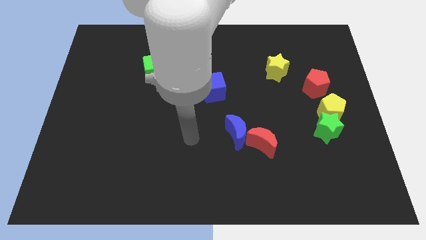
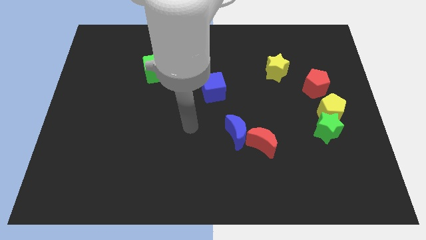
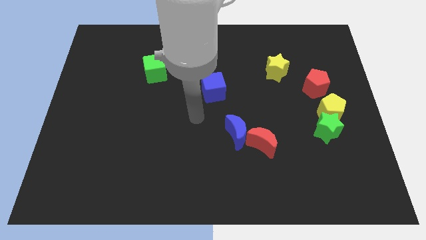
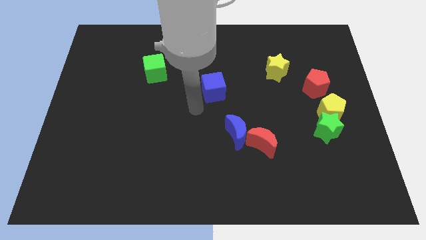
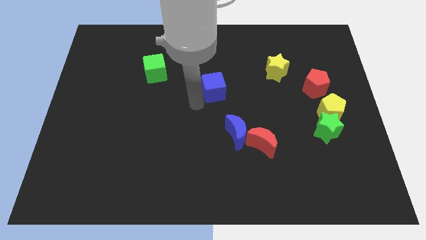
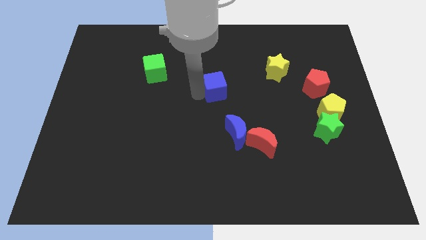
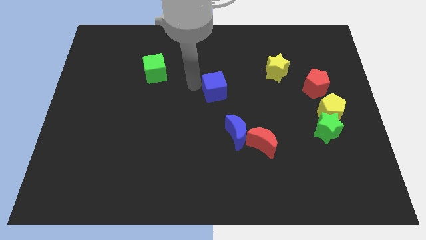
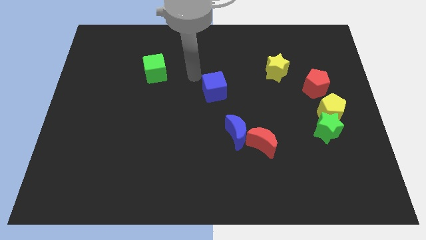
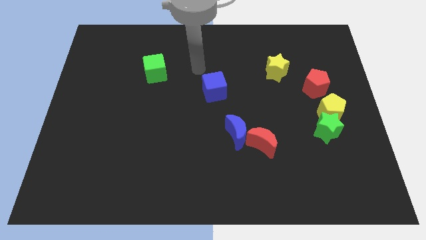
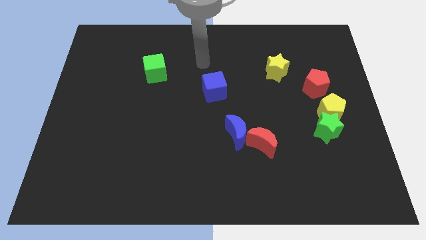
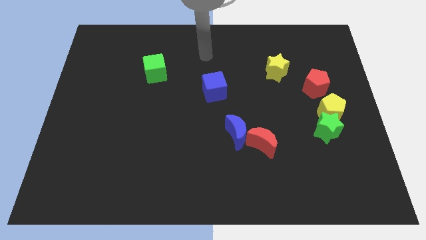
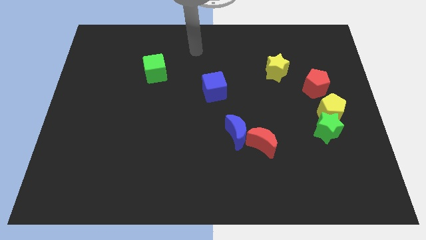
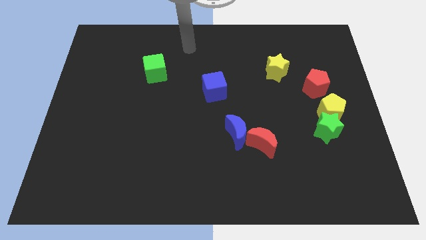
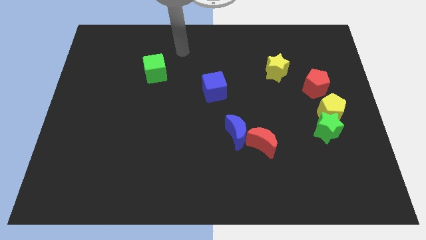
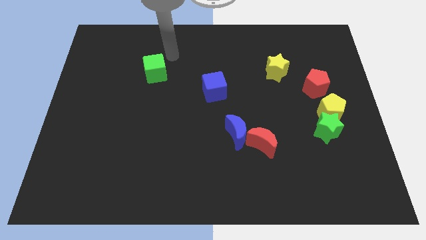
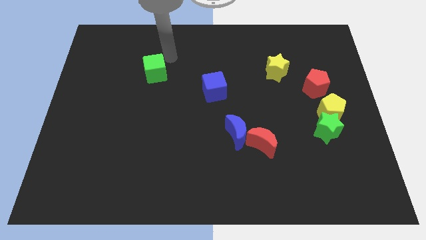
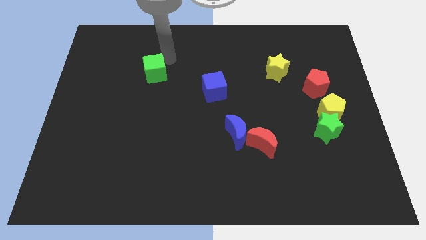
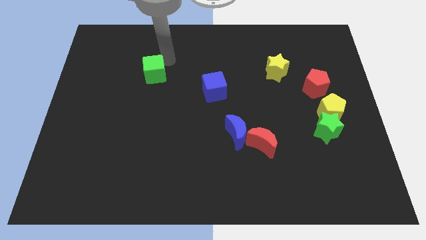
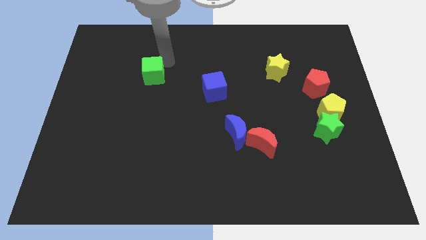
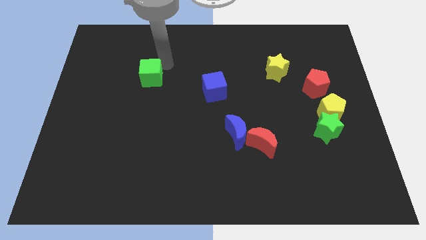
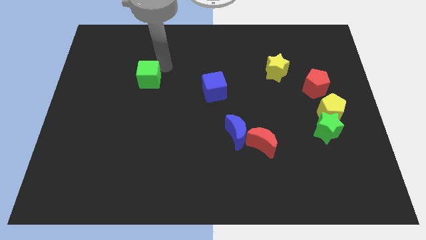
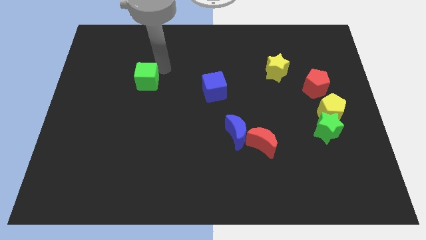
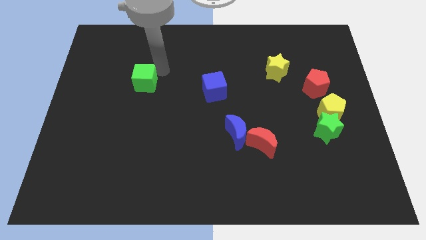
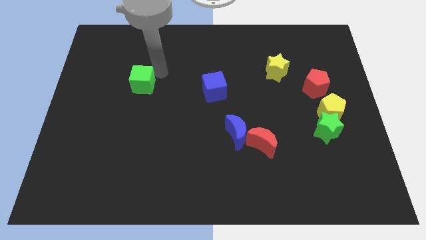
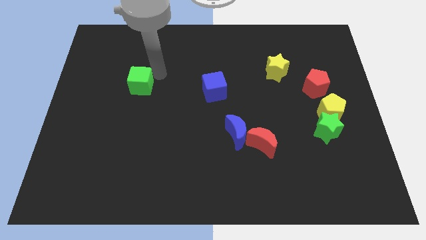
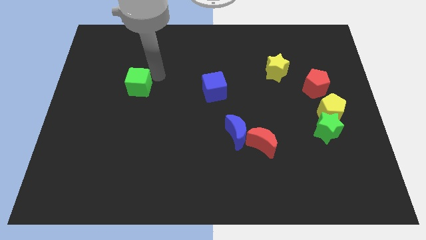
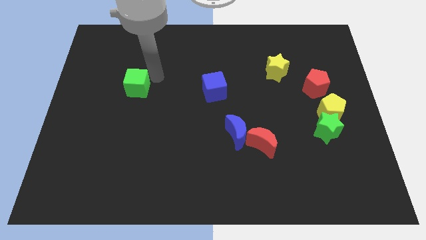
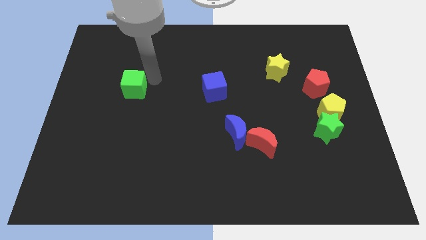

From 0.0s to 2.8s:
slide the green cube slightly down and left diagonally

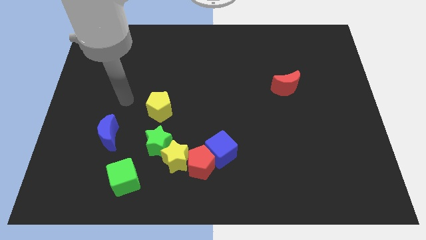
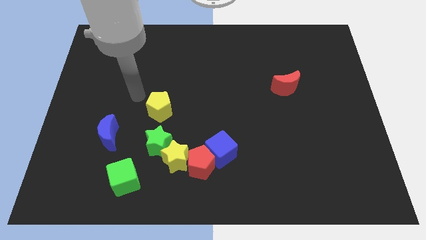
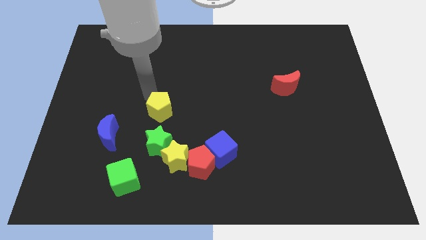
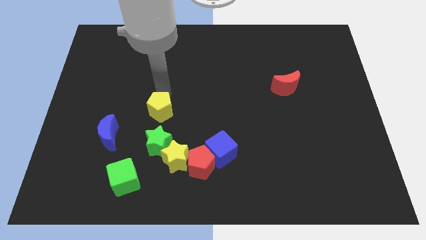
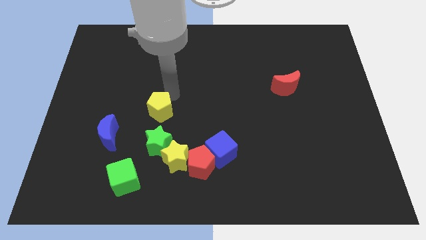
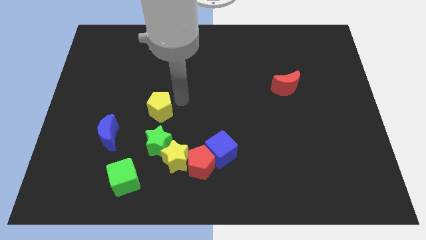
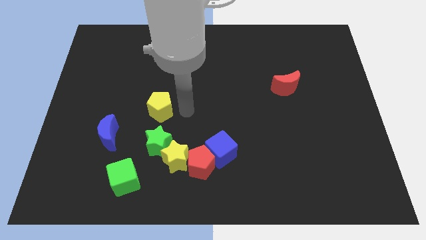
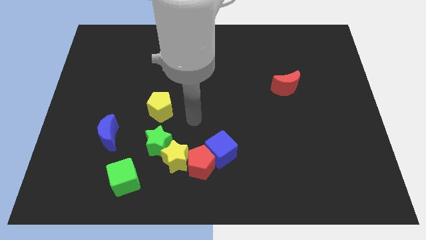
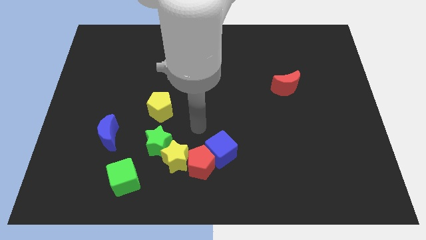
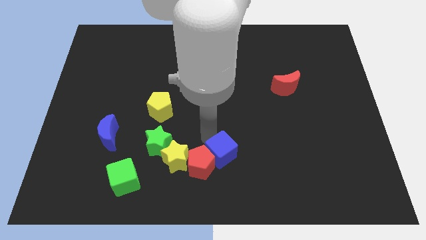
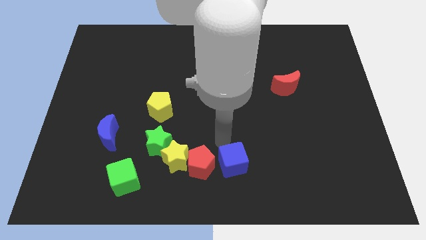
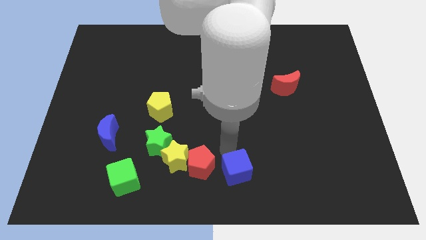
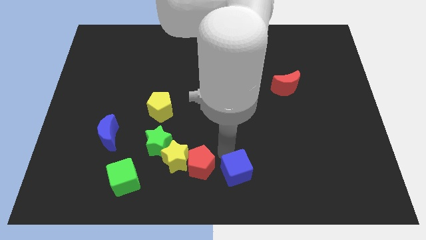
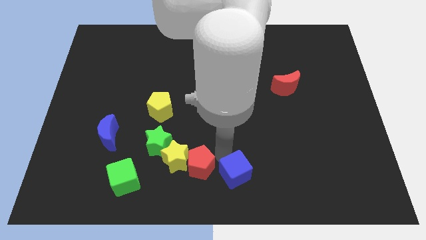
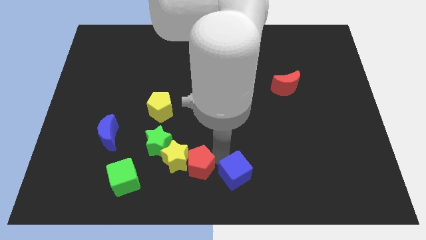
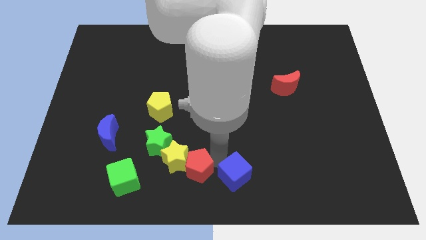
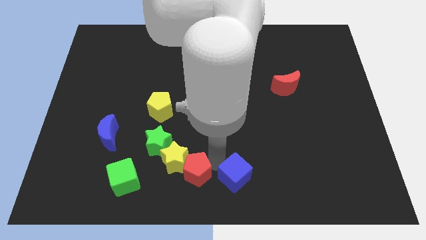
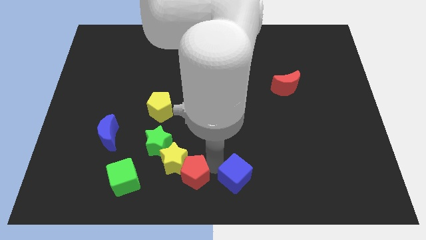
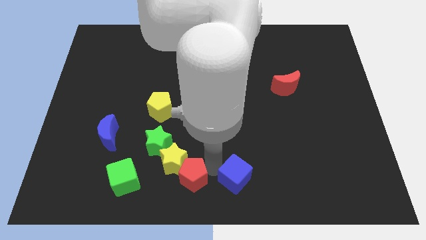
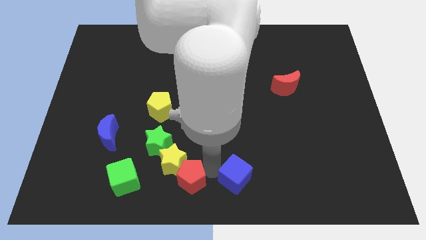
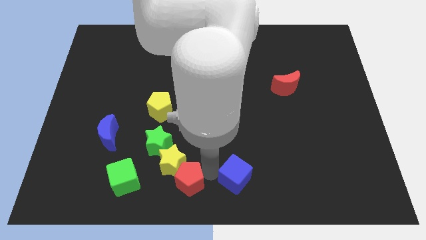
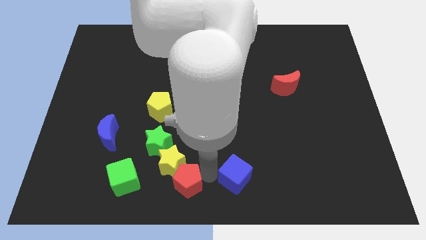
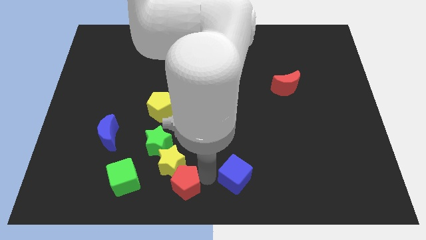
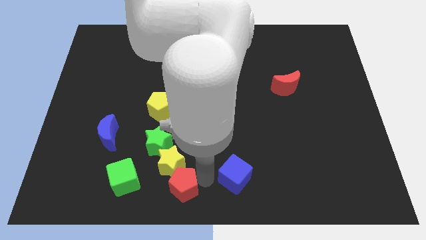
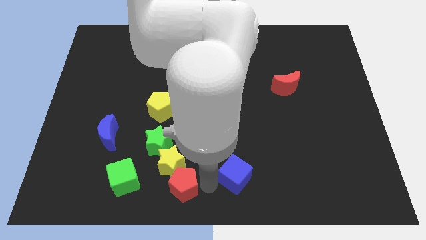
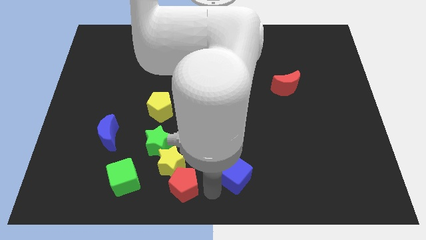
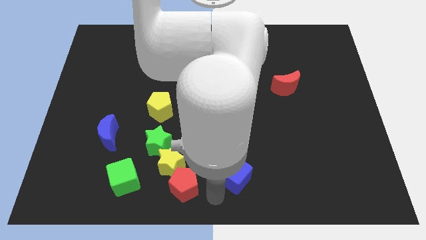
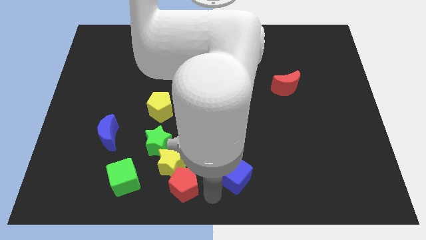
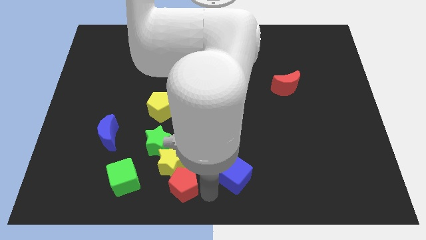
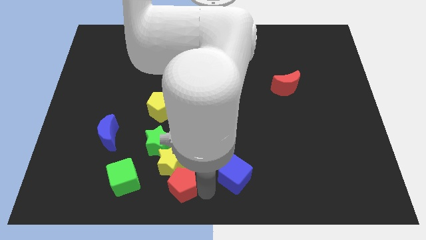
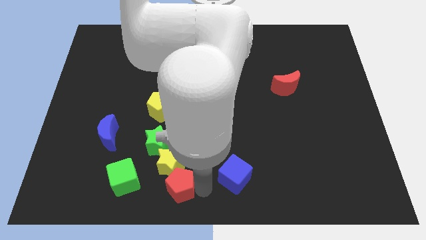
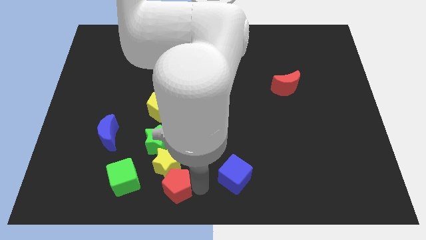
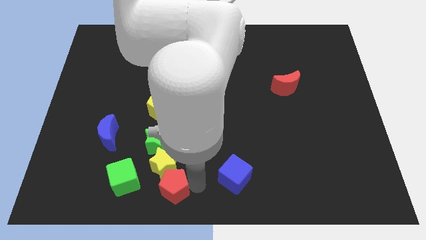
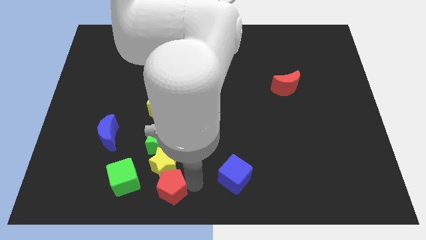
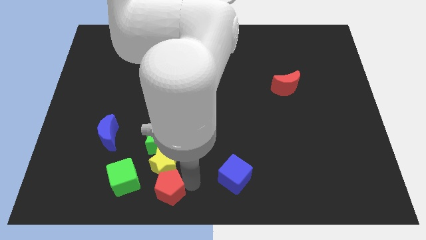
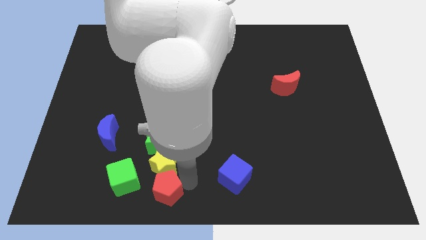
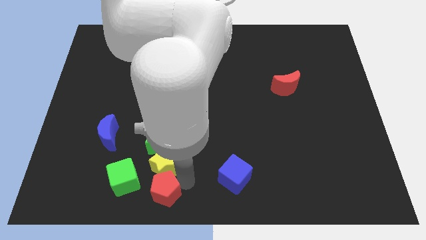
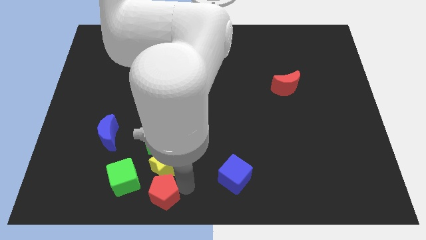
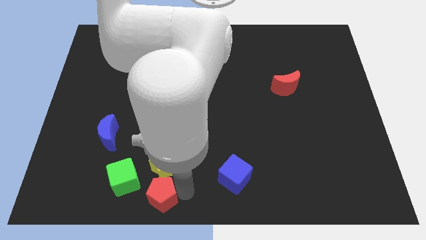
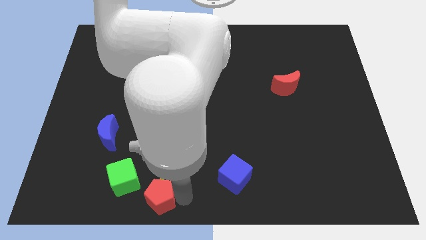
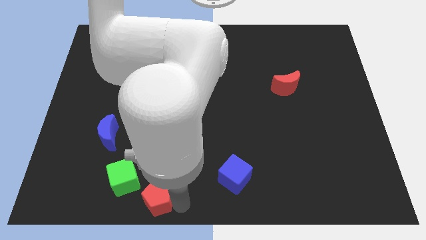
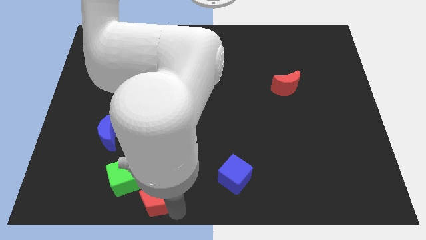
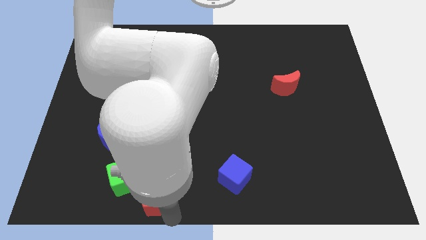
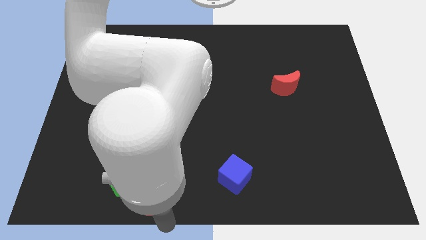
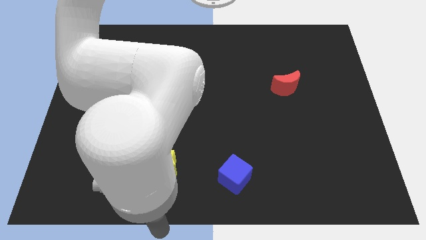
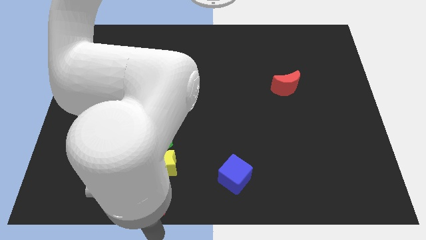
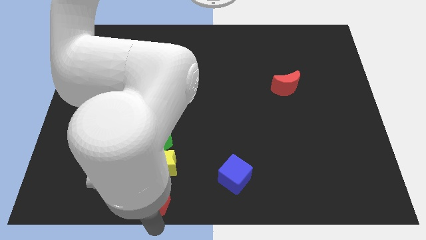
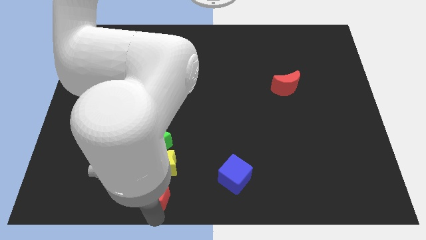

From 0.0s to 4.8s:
slightly push the red pentagon left

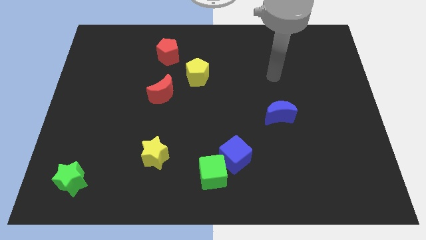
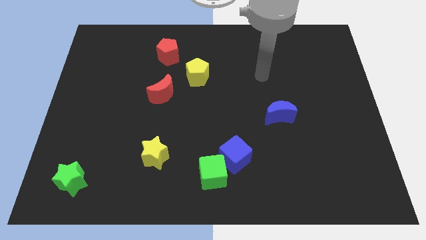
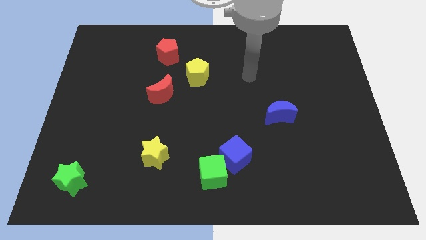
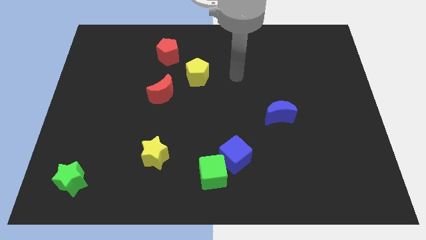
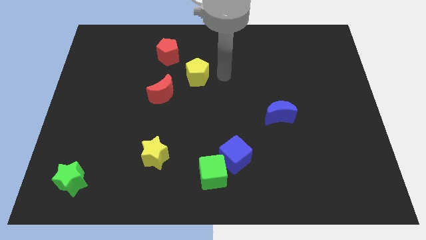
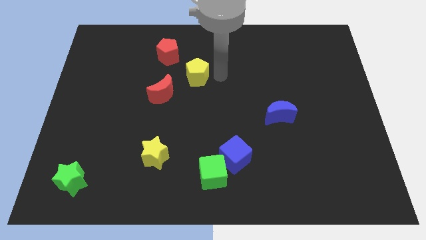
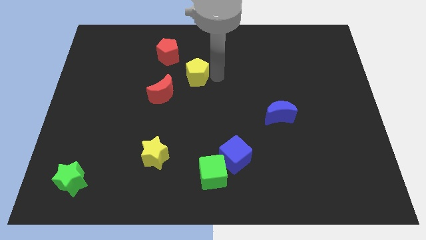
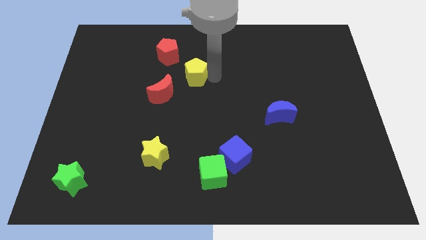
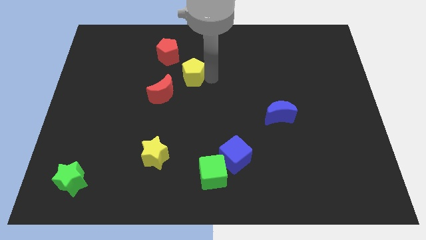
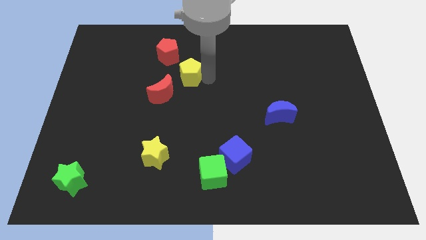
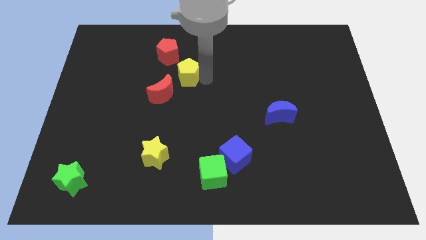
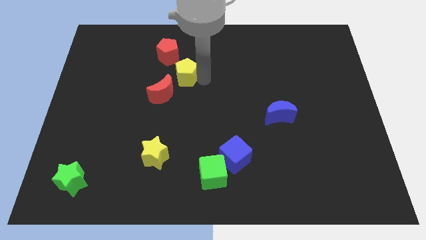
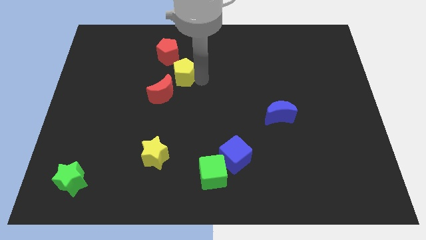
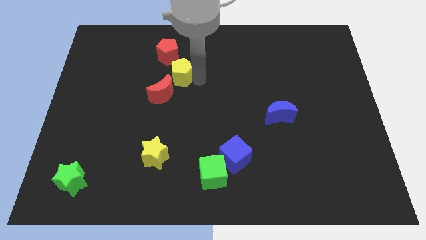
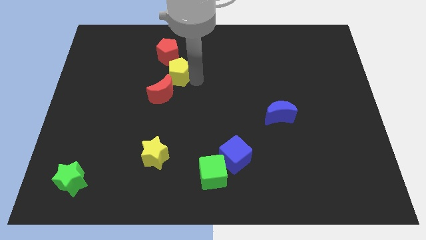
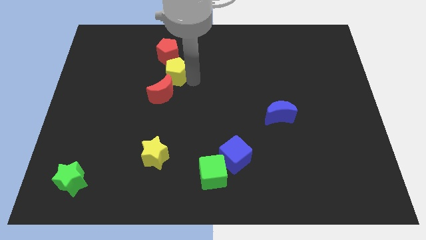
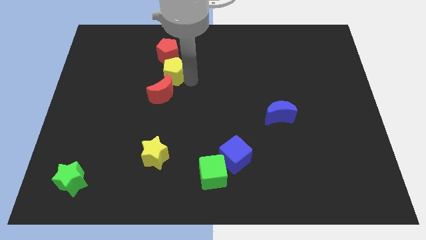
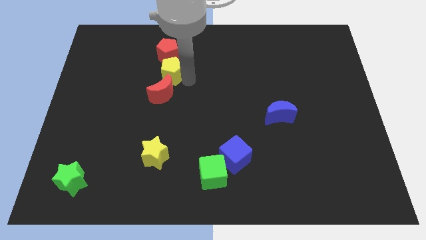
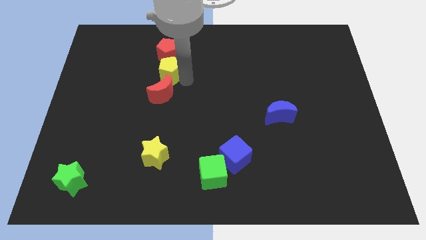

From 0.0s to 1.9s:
slightly move the yellow pentagon left
